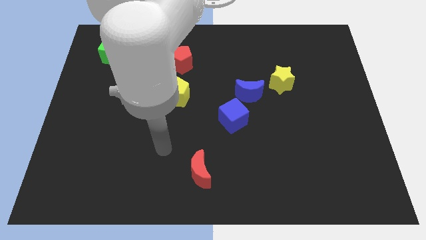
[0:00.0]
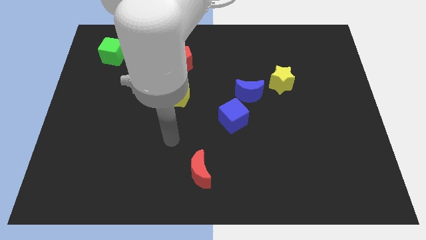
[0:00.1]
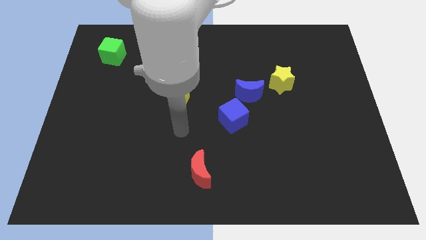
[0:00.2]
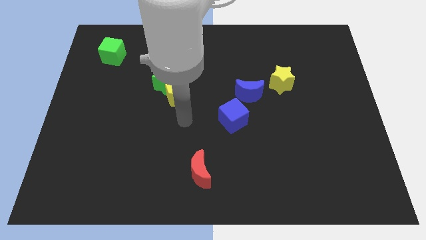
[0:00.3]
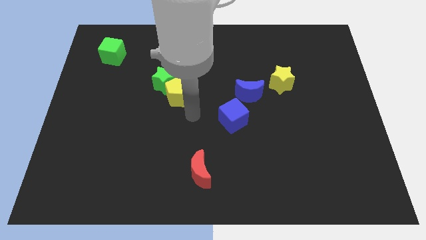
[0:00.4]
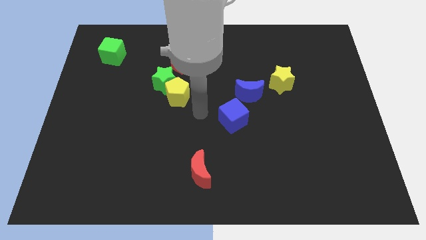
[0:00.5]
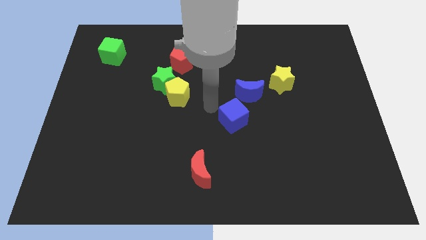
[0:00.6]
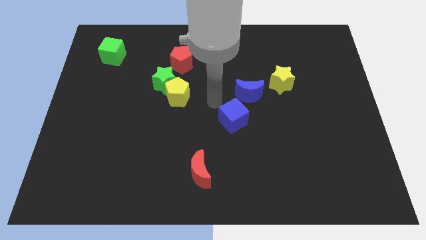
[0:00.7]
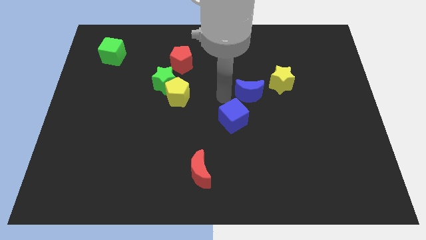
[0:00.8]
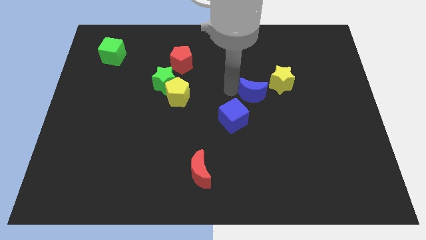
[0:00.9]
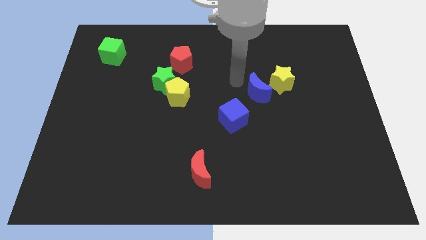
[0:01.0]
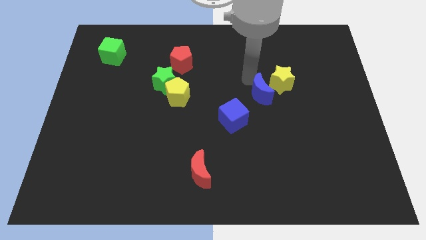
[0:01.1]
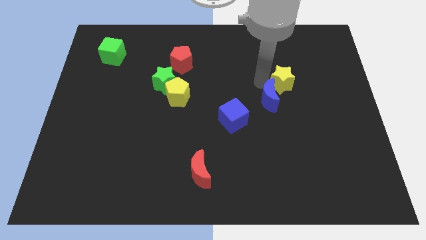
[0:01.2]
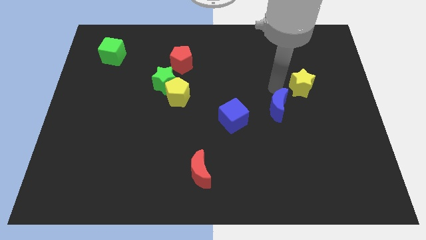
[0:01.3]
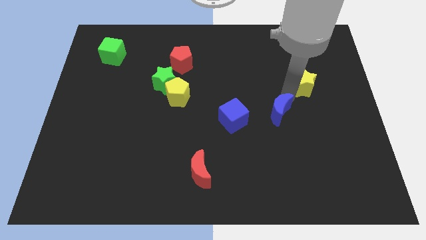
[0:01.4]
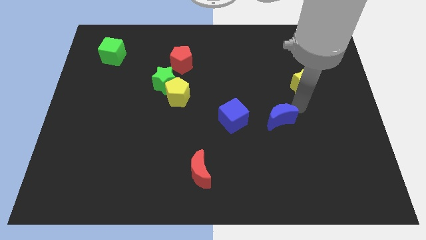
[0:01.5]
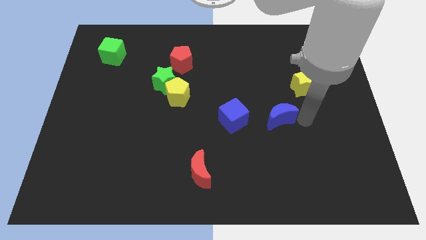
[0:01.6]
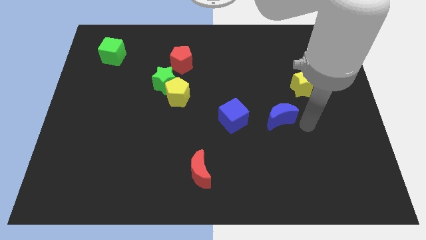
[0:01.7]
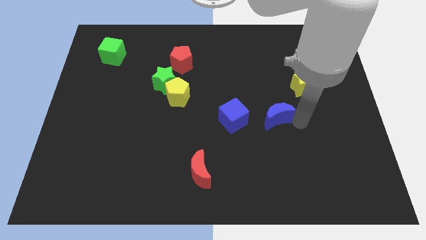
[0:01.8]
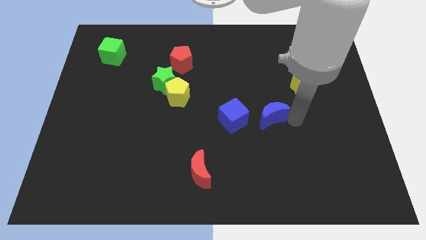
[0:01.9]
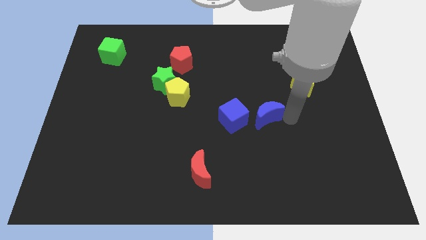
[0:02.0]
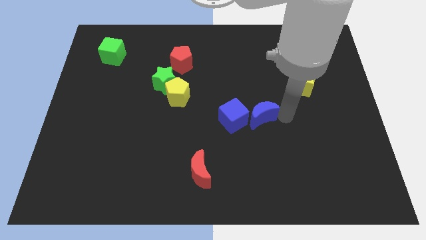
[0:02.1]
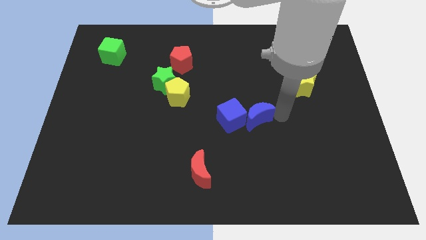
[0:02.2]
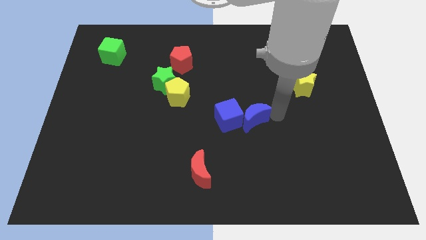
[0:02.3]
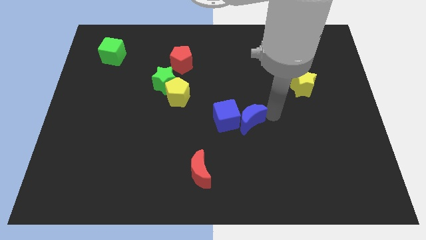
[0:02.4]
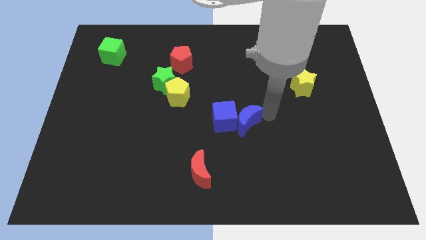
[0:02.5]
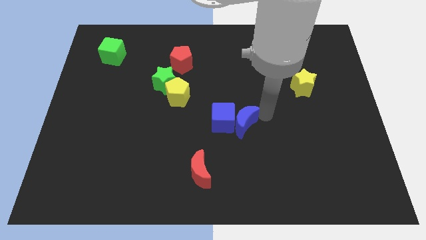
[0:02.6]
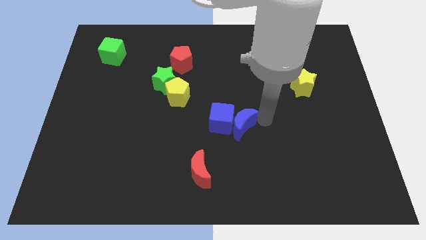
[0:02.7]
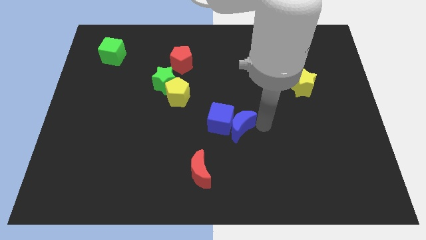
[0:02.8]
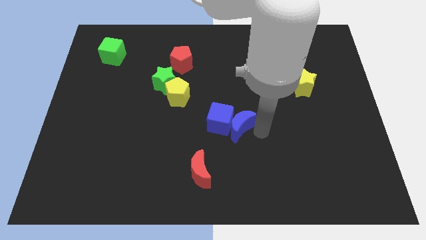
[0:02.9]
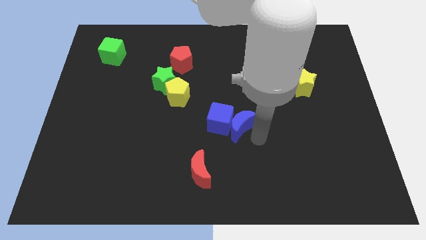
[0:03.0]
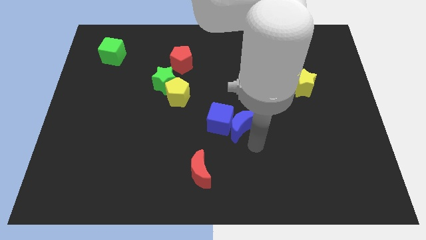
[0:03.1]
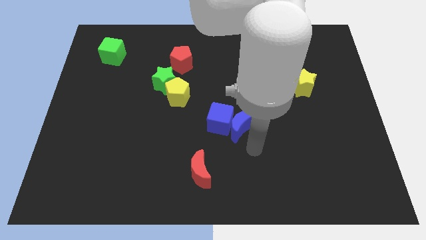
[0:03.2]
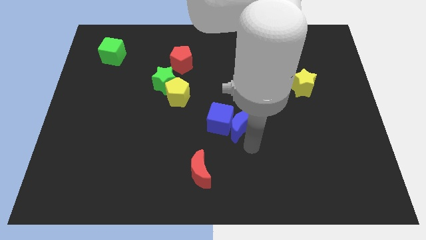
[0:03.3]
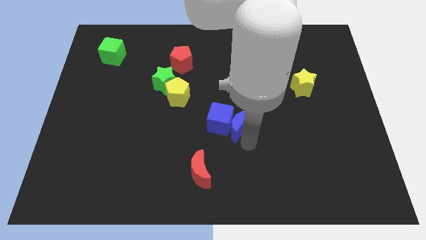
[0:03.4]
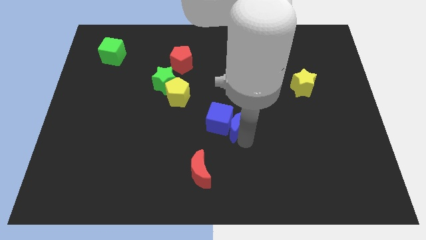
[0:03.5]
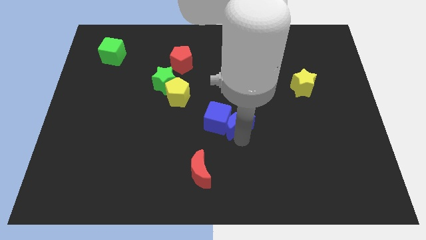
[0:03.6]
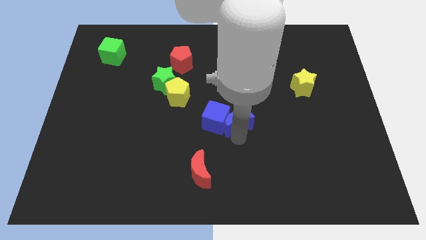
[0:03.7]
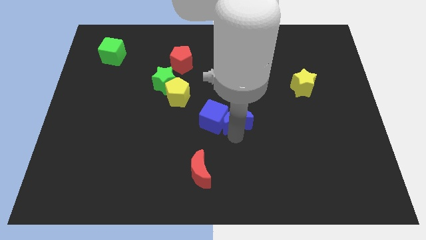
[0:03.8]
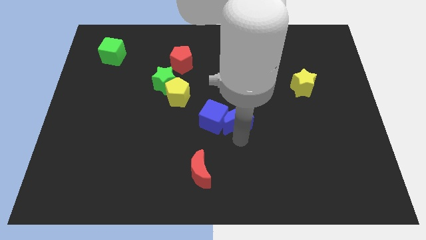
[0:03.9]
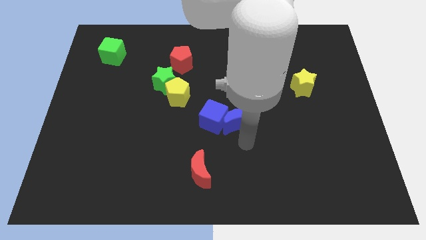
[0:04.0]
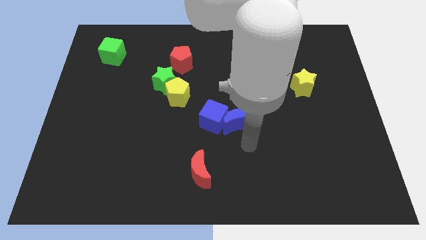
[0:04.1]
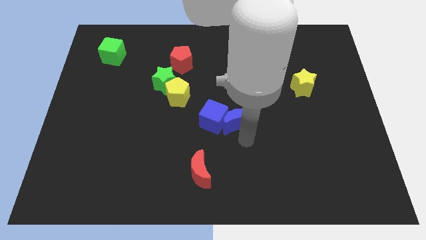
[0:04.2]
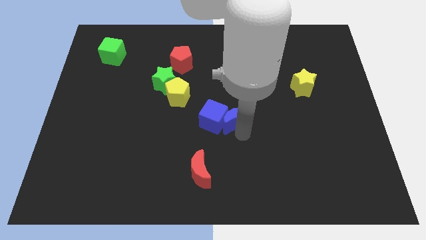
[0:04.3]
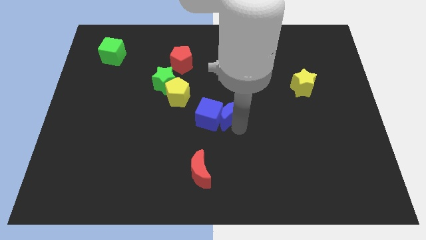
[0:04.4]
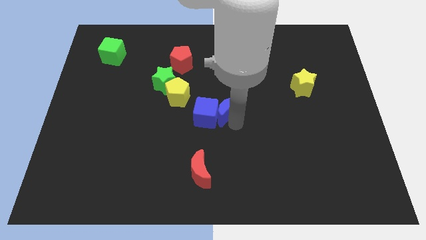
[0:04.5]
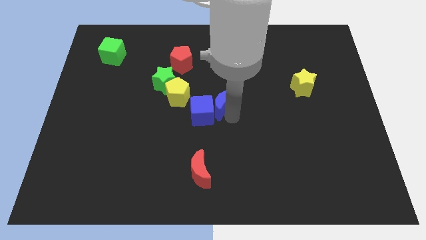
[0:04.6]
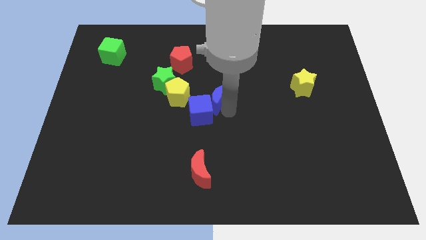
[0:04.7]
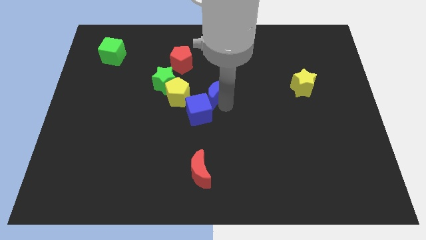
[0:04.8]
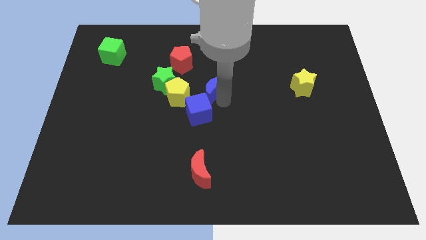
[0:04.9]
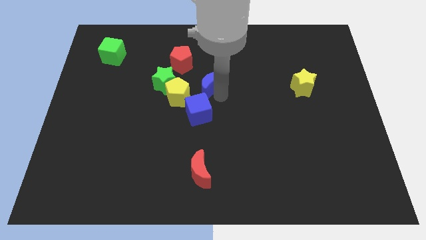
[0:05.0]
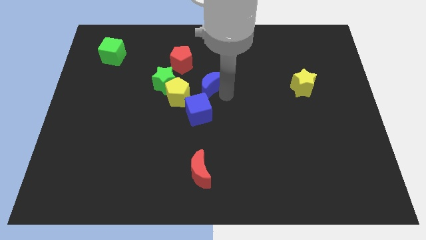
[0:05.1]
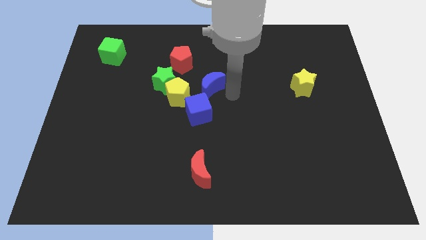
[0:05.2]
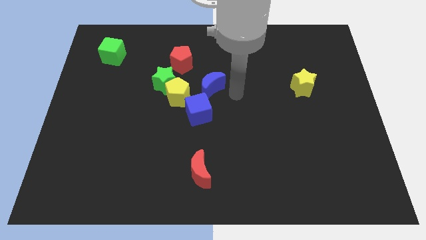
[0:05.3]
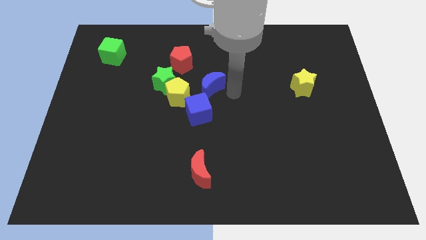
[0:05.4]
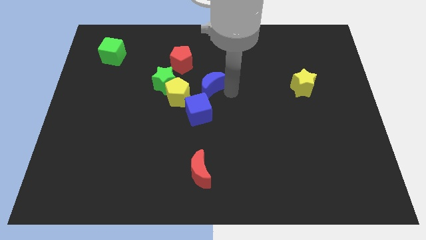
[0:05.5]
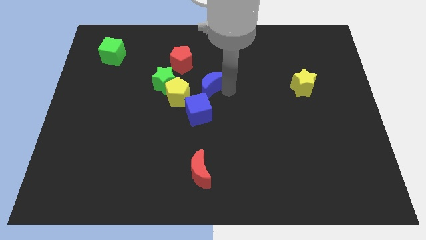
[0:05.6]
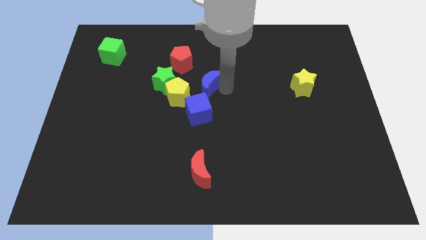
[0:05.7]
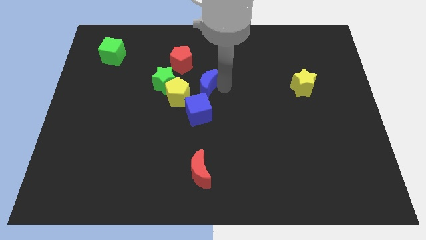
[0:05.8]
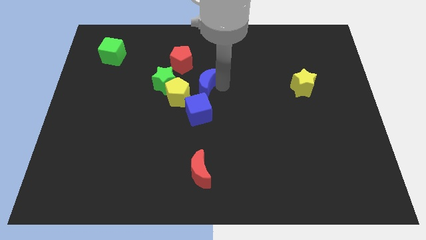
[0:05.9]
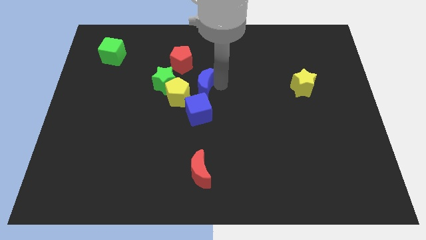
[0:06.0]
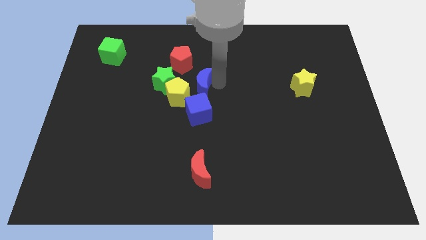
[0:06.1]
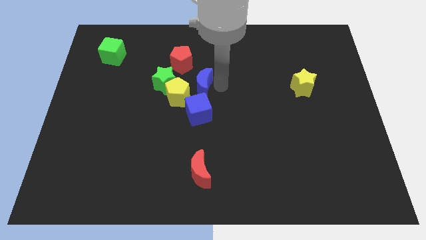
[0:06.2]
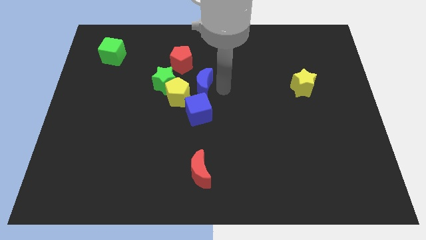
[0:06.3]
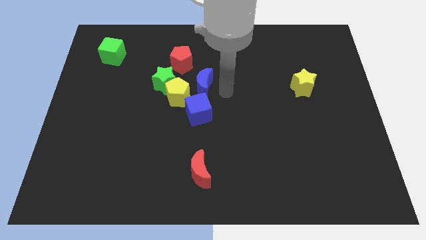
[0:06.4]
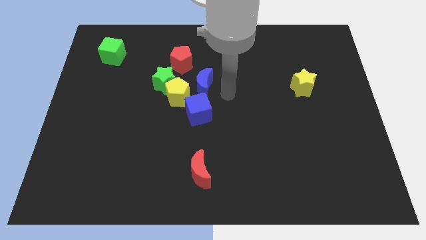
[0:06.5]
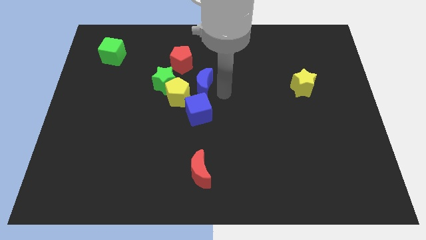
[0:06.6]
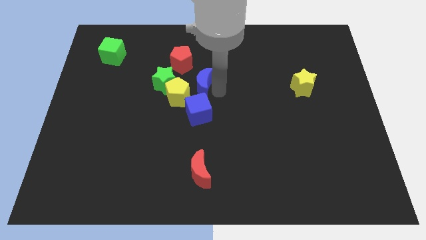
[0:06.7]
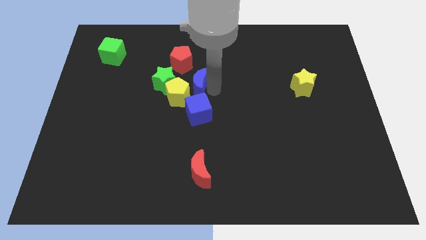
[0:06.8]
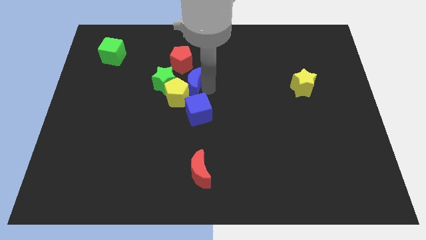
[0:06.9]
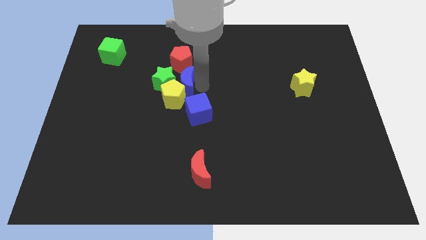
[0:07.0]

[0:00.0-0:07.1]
move the blue moon next to the green star
